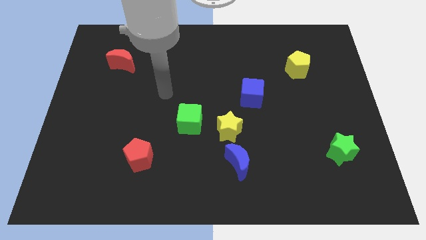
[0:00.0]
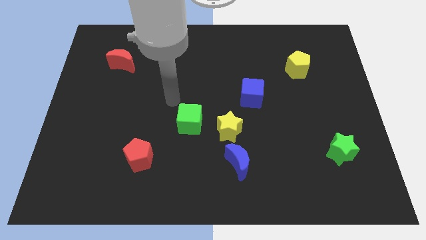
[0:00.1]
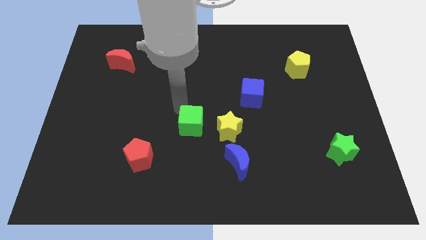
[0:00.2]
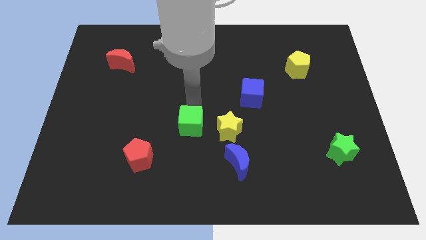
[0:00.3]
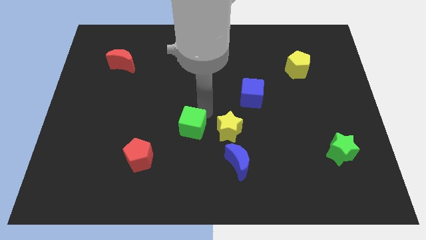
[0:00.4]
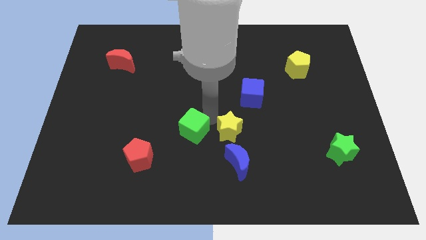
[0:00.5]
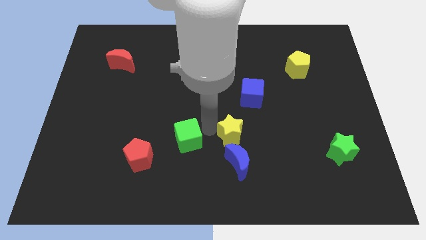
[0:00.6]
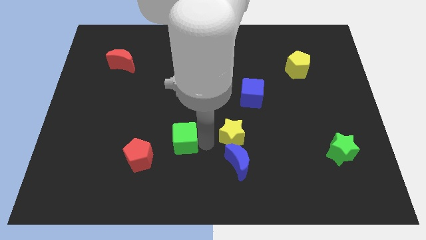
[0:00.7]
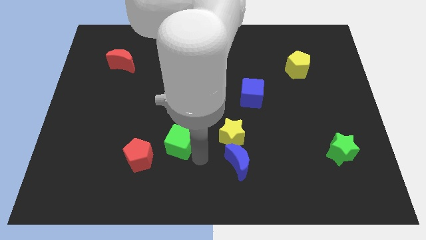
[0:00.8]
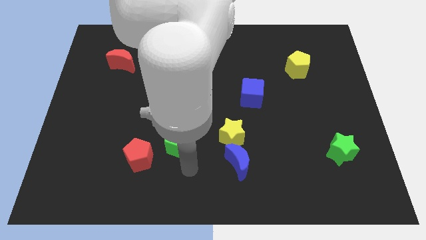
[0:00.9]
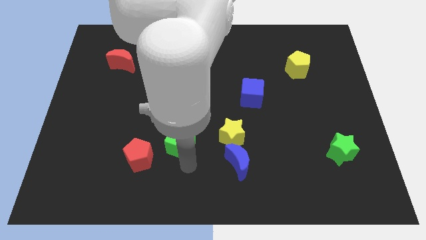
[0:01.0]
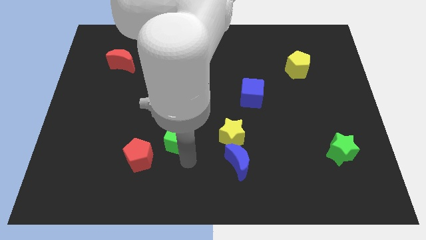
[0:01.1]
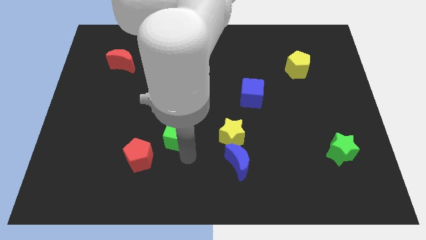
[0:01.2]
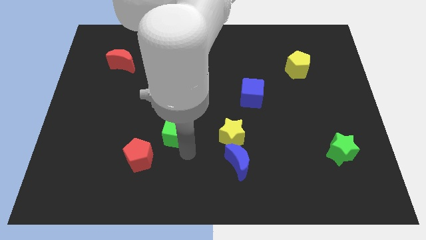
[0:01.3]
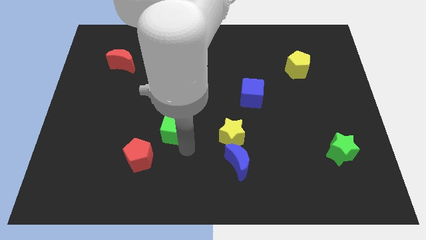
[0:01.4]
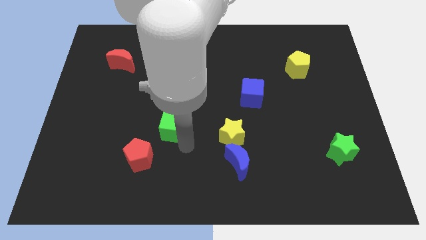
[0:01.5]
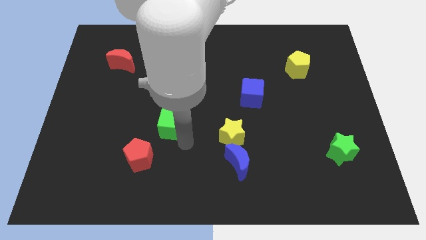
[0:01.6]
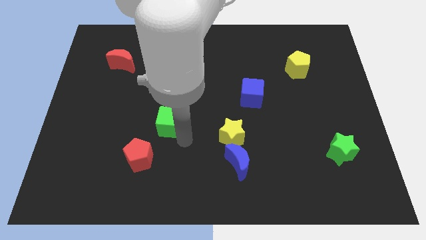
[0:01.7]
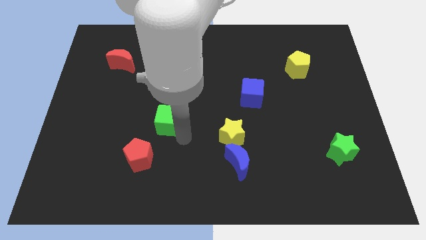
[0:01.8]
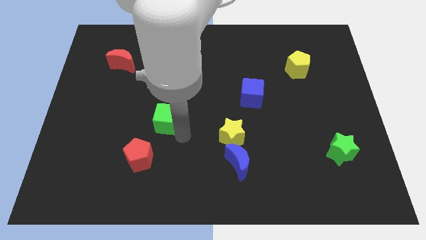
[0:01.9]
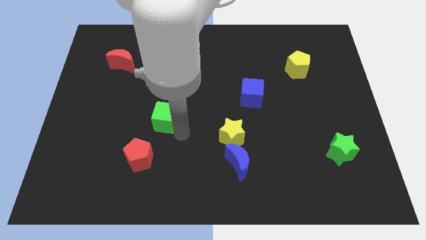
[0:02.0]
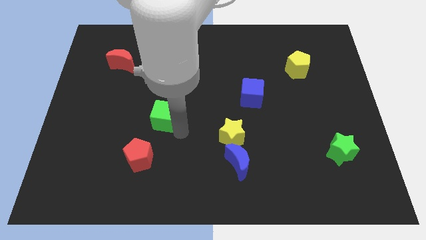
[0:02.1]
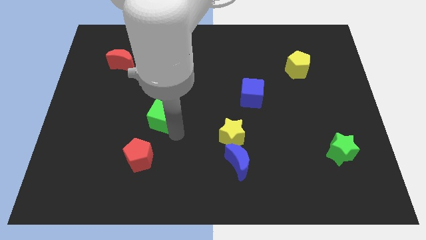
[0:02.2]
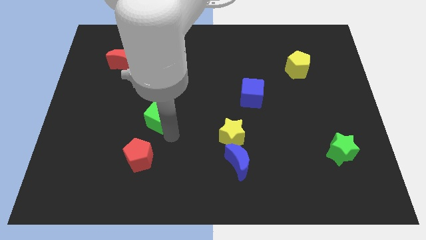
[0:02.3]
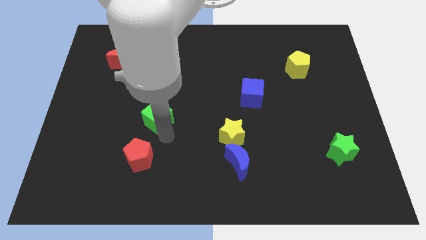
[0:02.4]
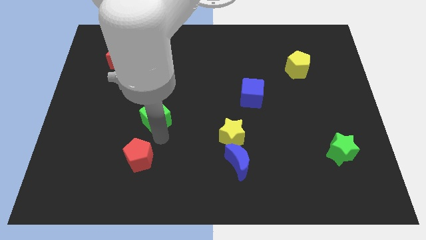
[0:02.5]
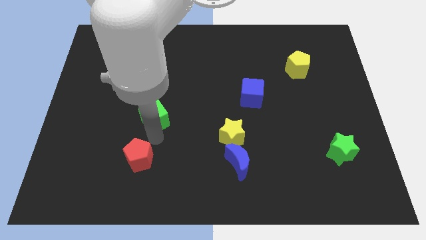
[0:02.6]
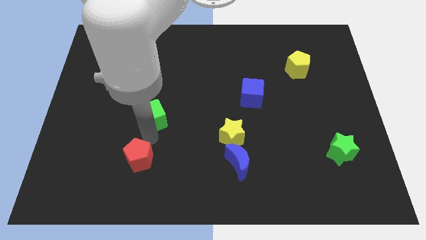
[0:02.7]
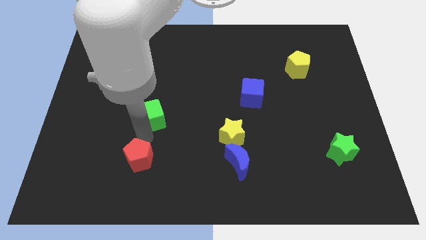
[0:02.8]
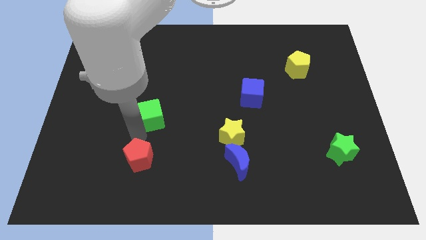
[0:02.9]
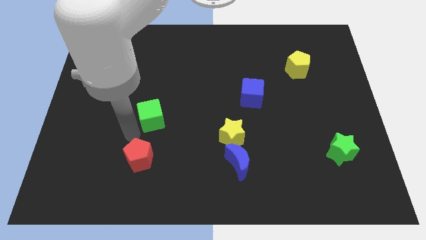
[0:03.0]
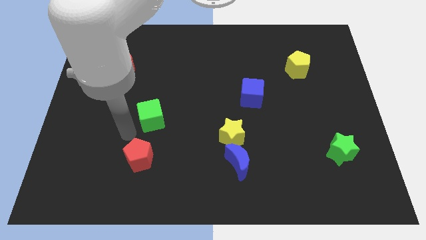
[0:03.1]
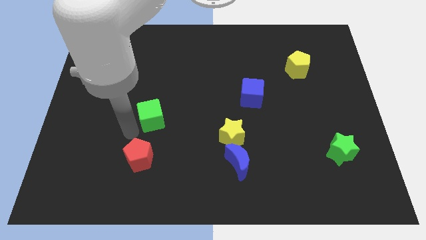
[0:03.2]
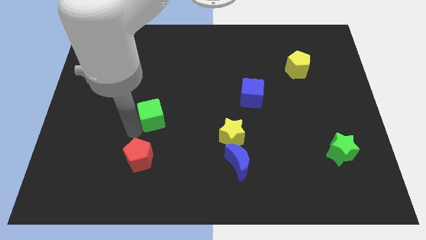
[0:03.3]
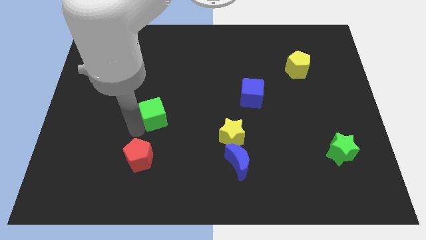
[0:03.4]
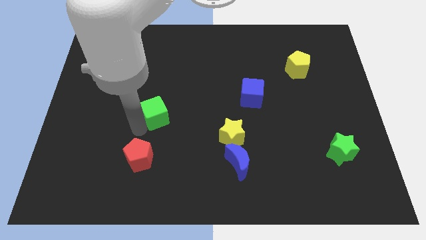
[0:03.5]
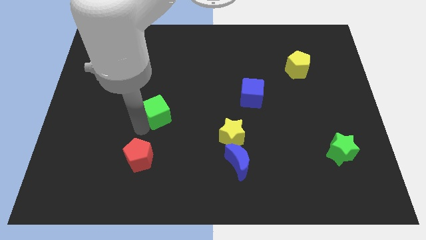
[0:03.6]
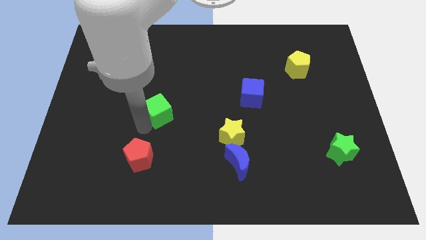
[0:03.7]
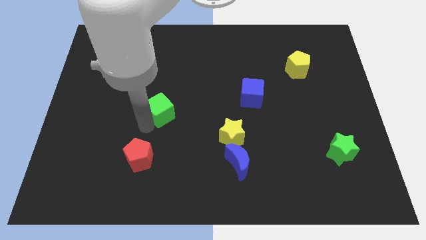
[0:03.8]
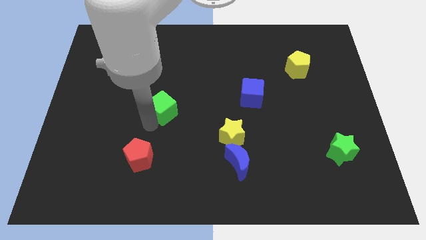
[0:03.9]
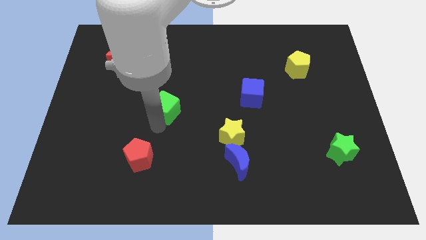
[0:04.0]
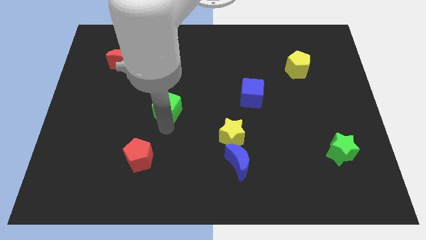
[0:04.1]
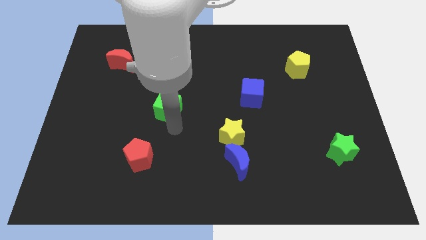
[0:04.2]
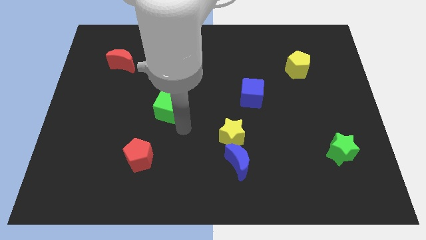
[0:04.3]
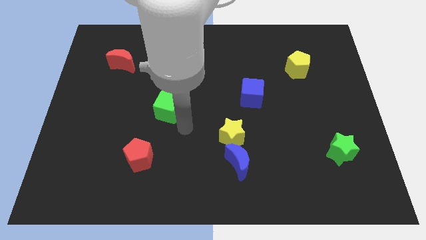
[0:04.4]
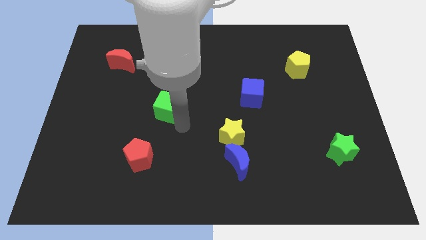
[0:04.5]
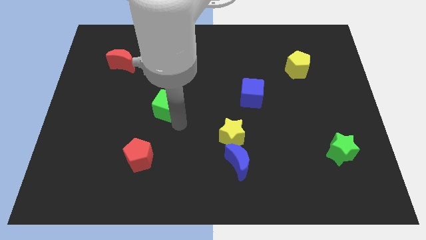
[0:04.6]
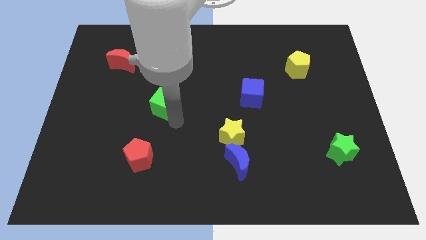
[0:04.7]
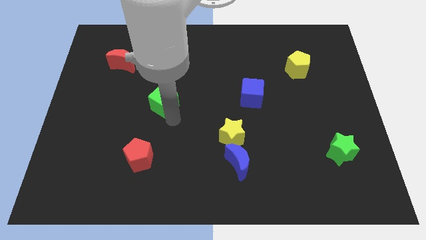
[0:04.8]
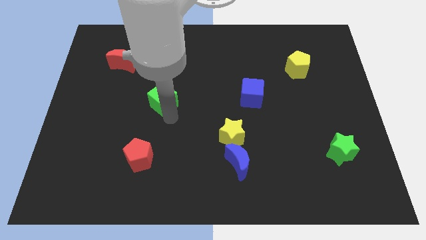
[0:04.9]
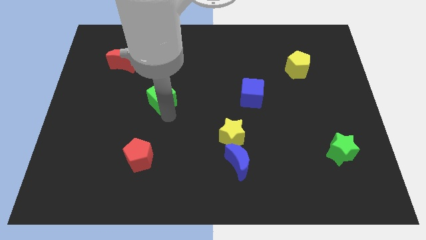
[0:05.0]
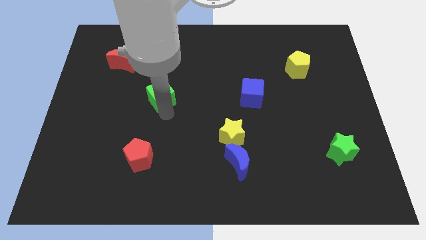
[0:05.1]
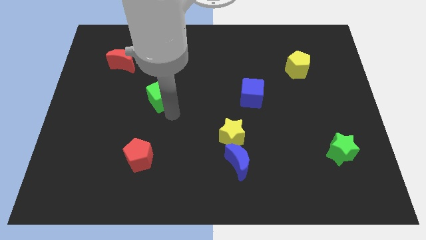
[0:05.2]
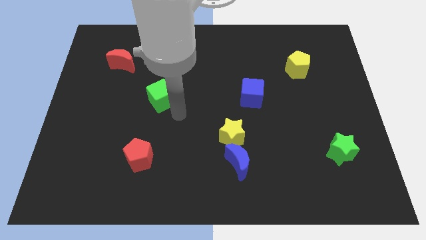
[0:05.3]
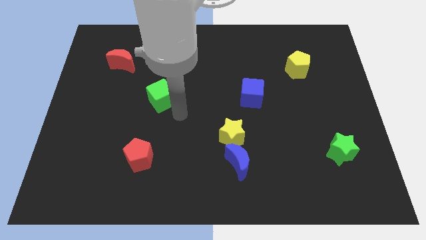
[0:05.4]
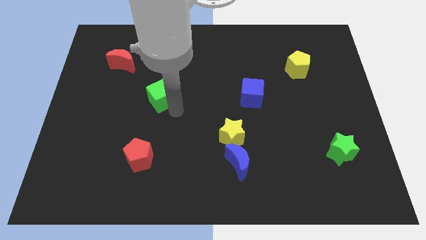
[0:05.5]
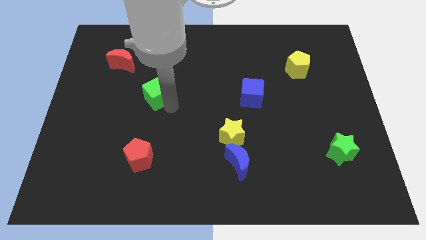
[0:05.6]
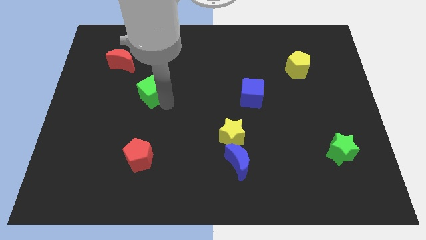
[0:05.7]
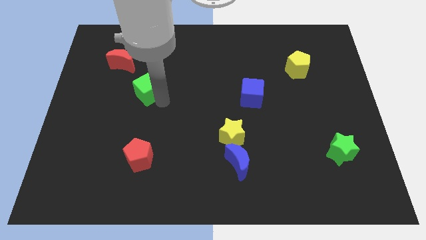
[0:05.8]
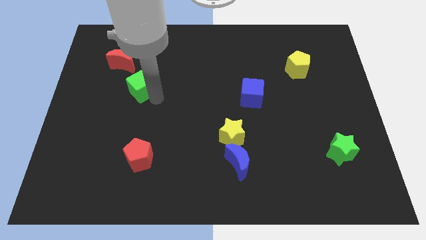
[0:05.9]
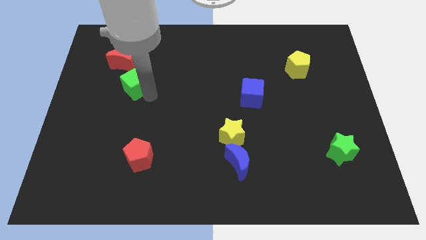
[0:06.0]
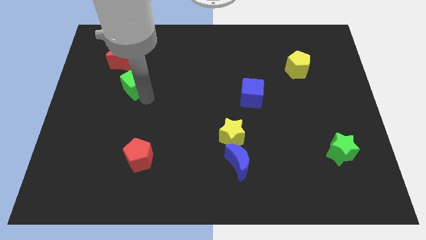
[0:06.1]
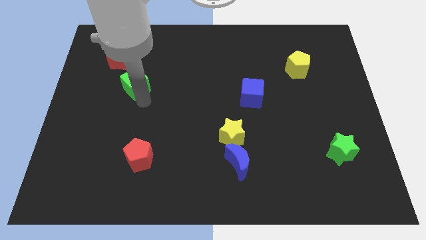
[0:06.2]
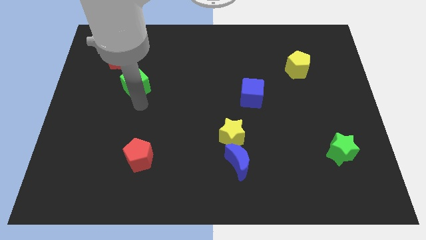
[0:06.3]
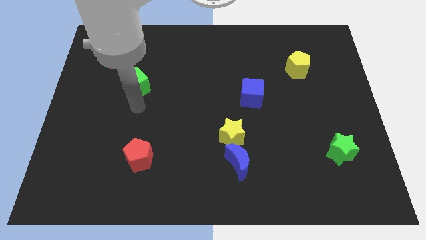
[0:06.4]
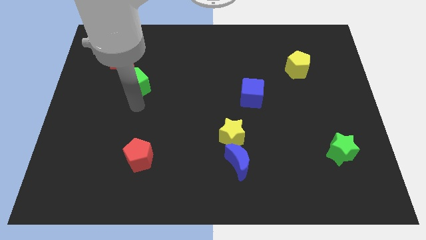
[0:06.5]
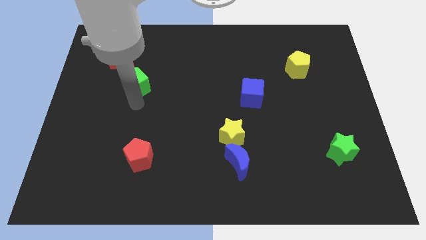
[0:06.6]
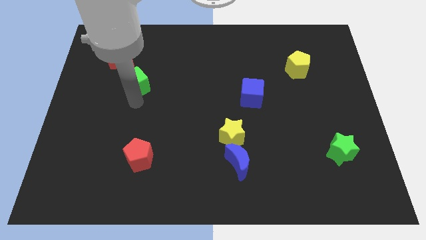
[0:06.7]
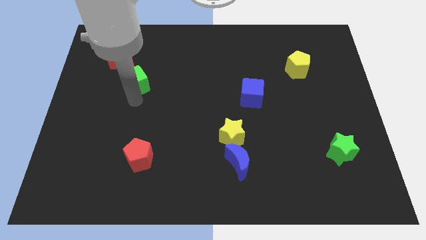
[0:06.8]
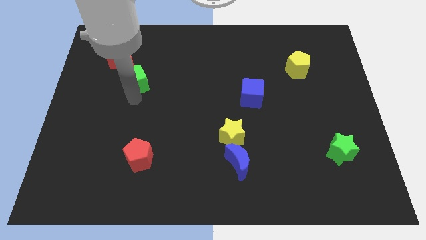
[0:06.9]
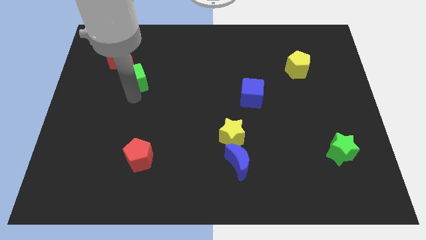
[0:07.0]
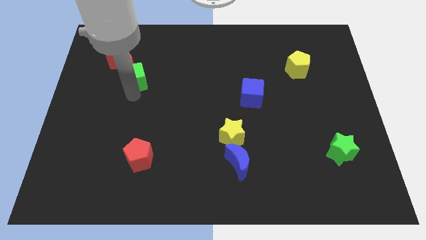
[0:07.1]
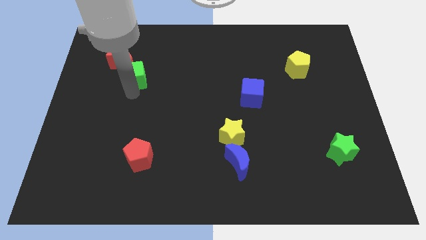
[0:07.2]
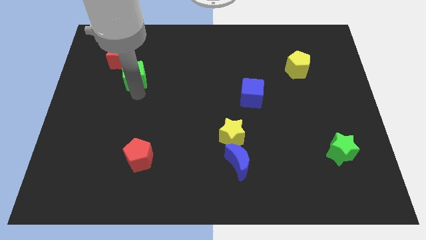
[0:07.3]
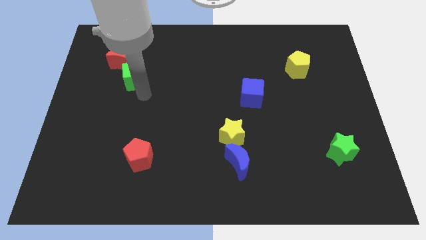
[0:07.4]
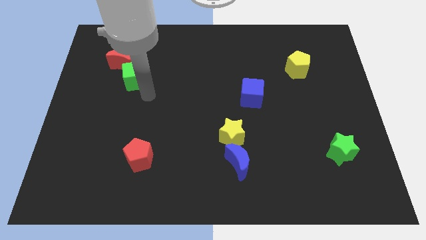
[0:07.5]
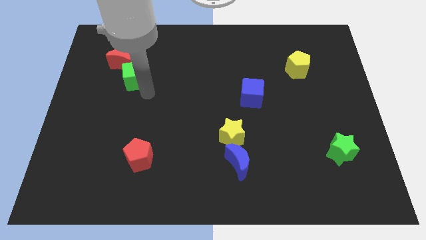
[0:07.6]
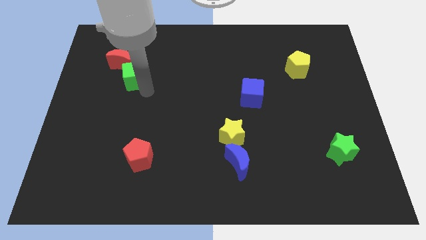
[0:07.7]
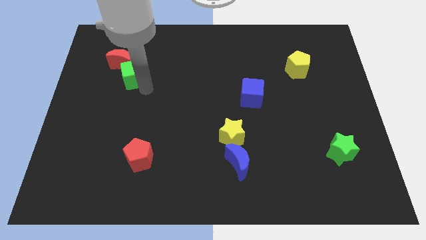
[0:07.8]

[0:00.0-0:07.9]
move the green cube close to the red moon
